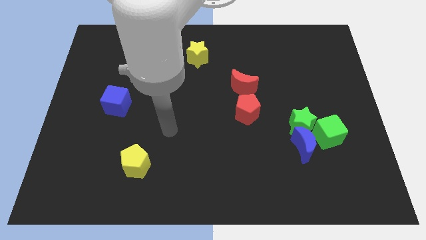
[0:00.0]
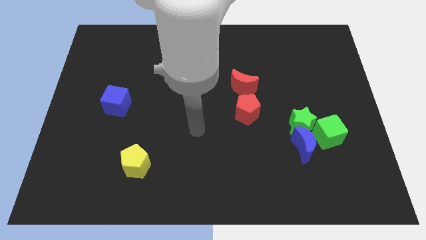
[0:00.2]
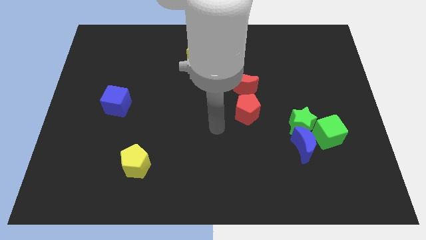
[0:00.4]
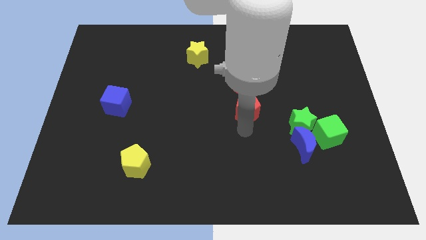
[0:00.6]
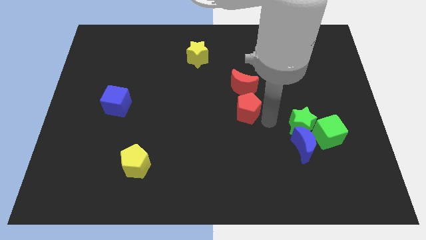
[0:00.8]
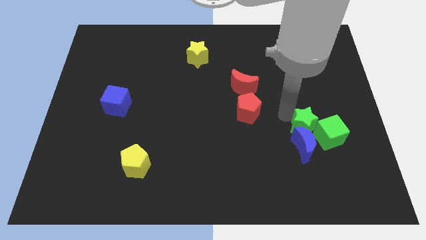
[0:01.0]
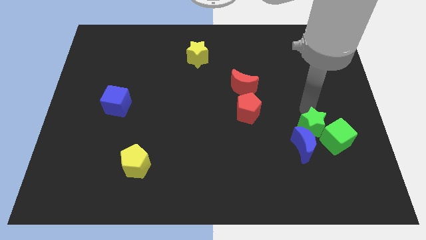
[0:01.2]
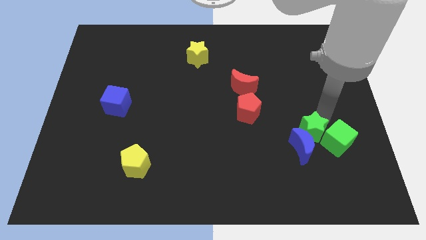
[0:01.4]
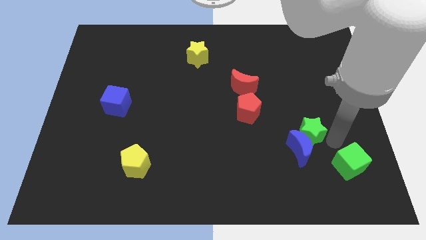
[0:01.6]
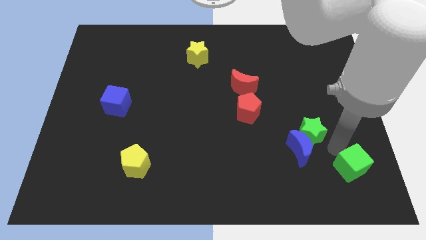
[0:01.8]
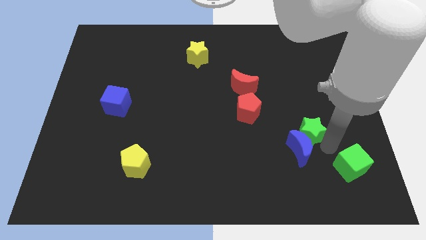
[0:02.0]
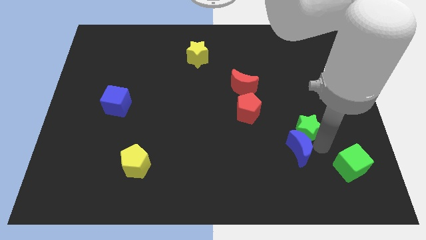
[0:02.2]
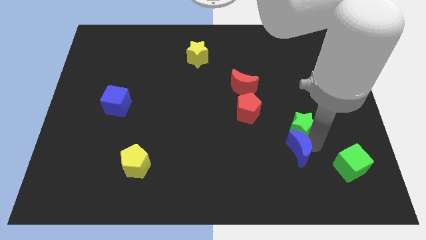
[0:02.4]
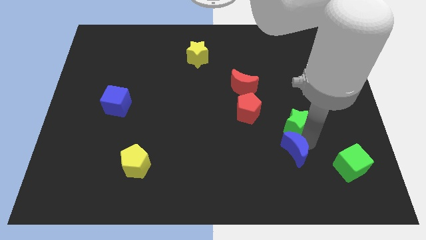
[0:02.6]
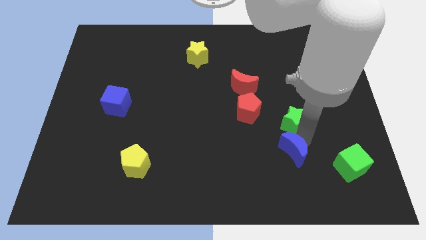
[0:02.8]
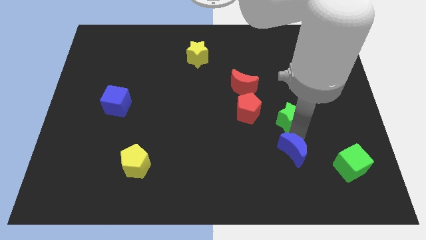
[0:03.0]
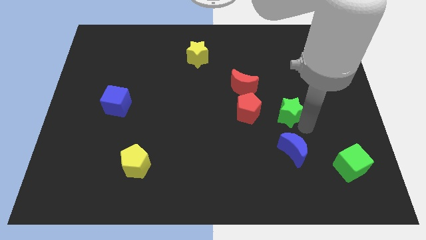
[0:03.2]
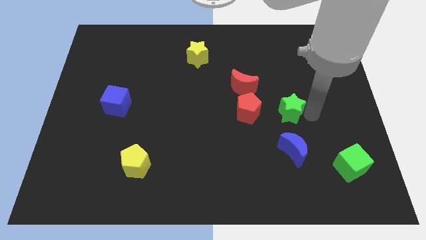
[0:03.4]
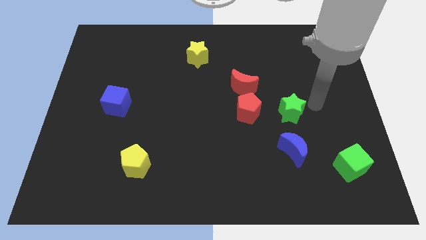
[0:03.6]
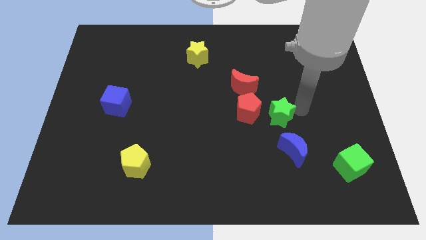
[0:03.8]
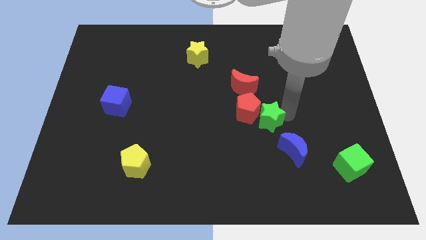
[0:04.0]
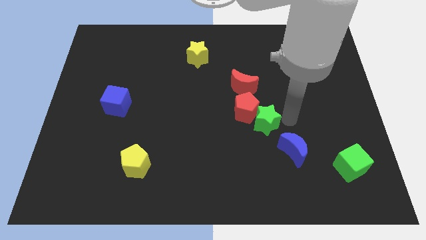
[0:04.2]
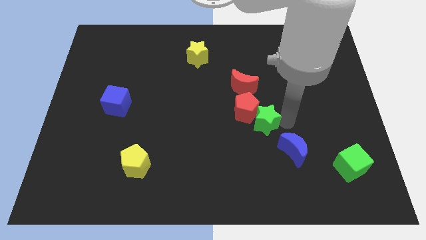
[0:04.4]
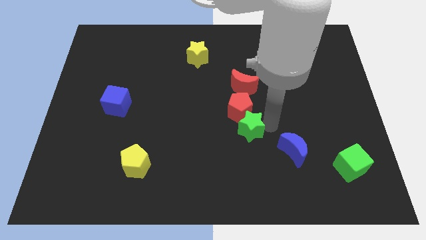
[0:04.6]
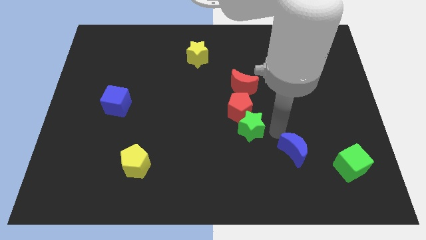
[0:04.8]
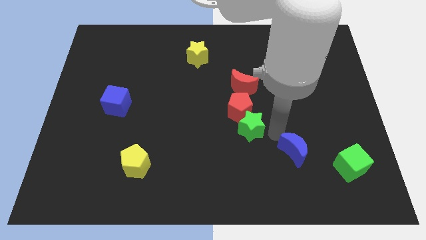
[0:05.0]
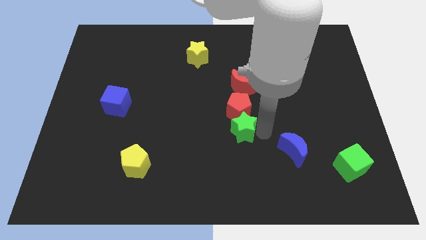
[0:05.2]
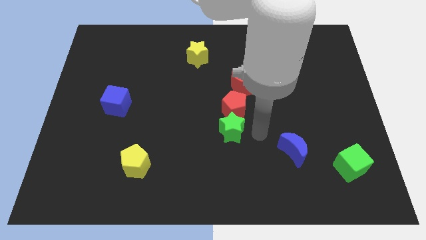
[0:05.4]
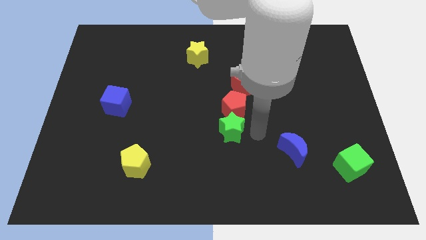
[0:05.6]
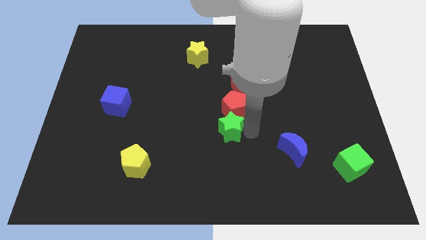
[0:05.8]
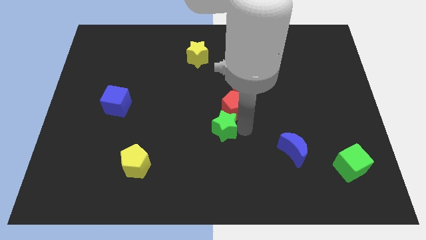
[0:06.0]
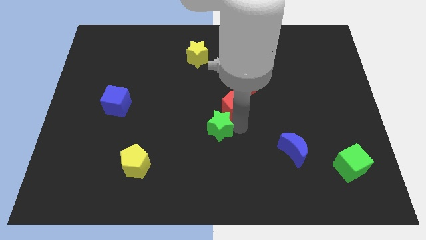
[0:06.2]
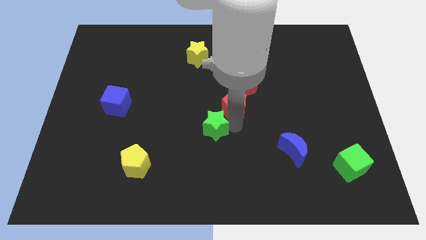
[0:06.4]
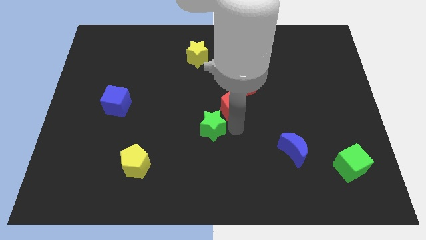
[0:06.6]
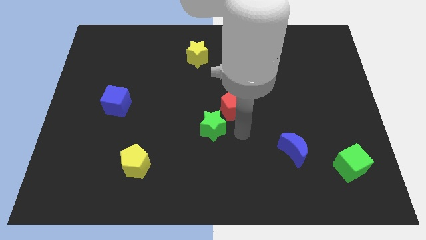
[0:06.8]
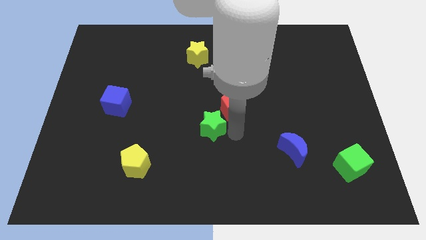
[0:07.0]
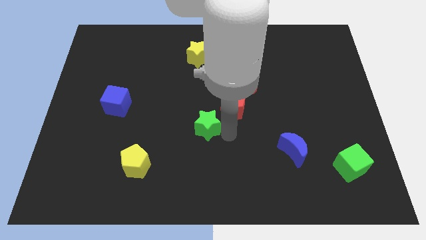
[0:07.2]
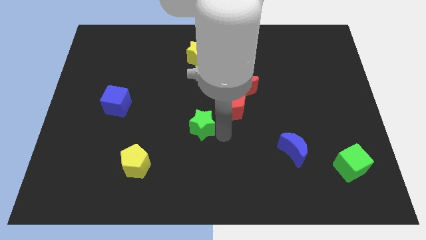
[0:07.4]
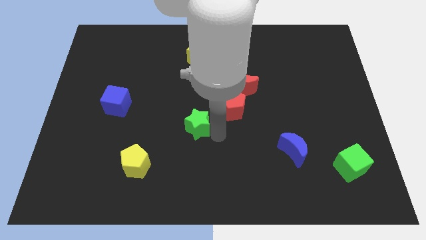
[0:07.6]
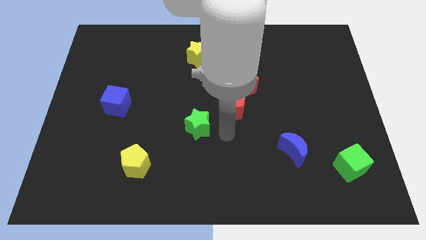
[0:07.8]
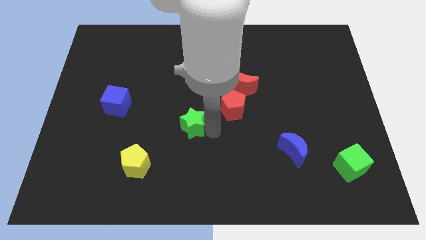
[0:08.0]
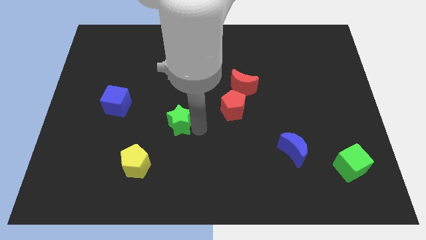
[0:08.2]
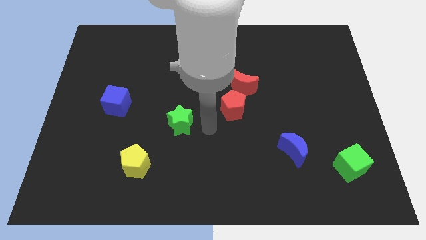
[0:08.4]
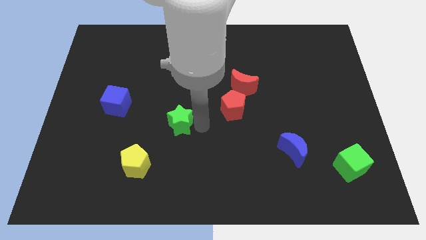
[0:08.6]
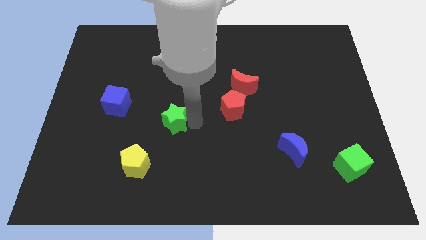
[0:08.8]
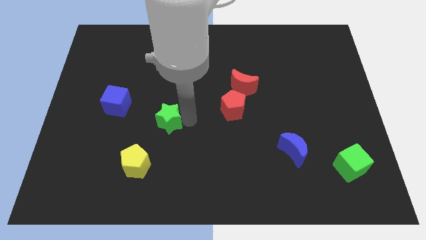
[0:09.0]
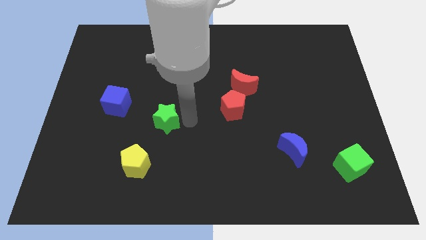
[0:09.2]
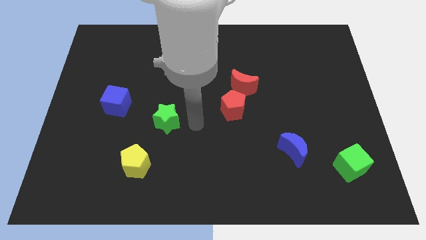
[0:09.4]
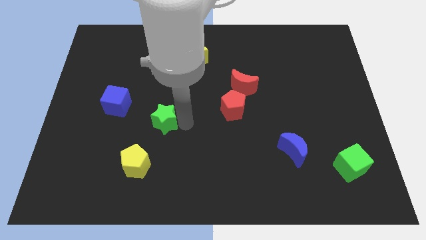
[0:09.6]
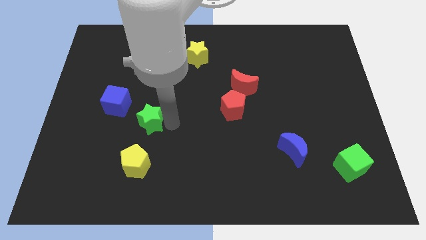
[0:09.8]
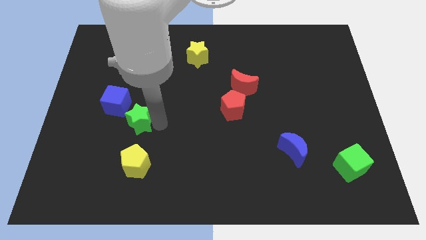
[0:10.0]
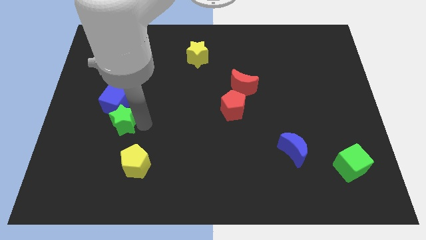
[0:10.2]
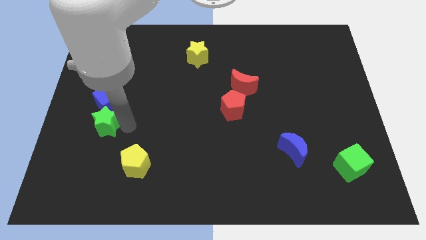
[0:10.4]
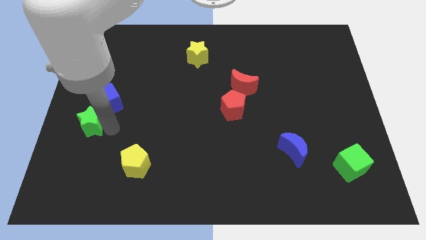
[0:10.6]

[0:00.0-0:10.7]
slide the green star to the left side of the board
